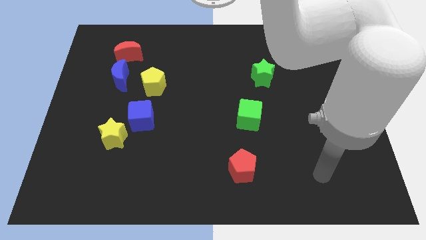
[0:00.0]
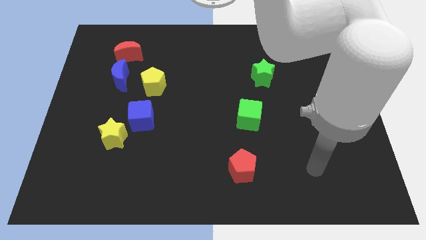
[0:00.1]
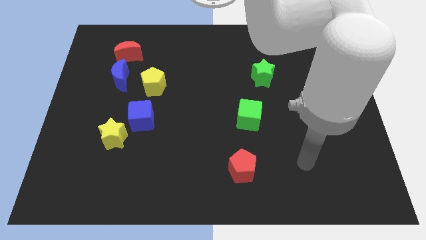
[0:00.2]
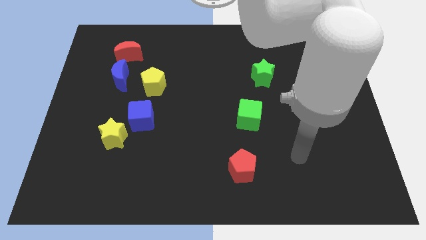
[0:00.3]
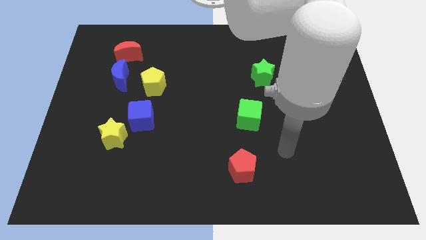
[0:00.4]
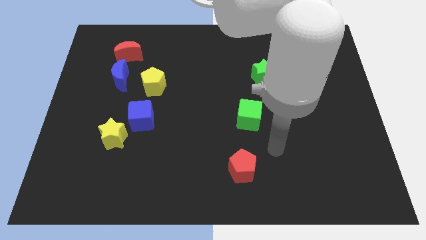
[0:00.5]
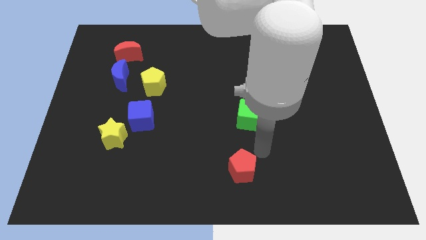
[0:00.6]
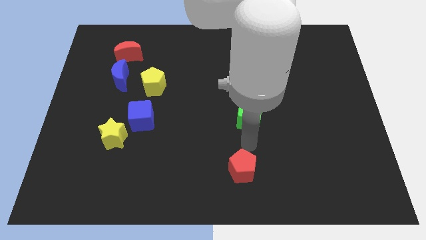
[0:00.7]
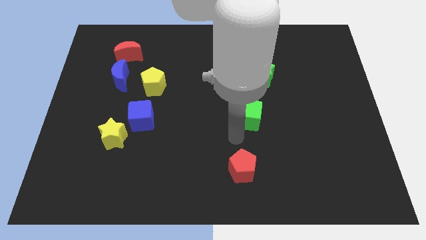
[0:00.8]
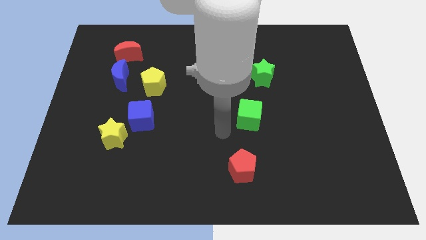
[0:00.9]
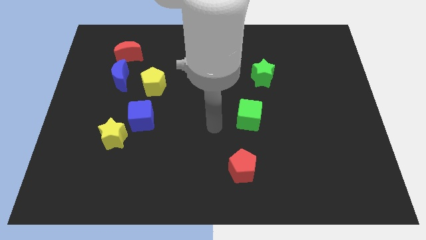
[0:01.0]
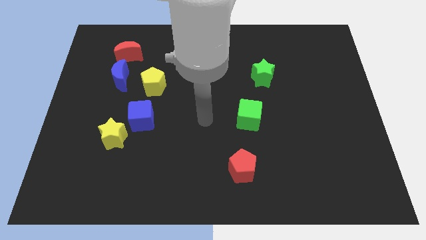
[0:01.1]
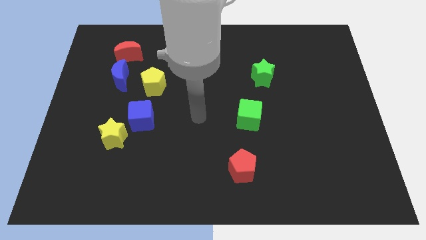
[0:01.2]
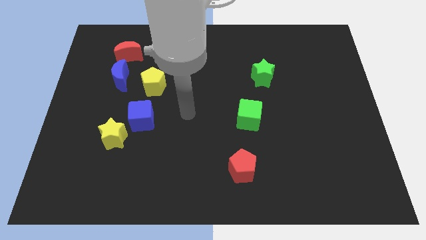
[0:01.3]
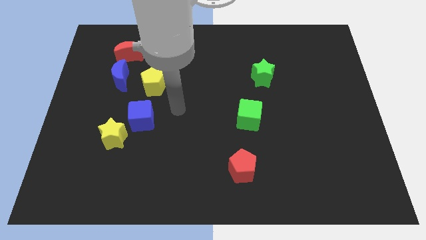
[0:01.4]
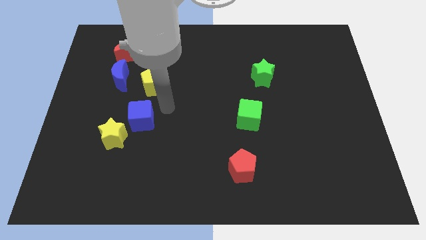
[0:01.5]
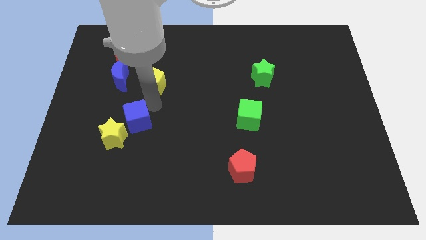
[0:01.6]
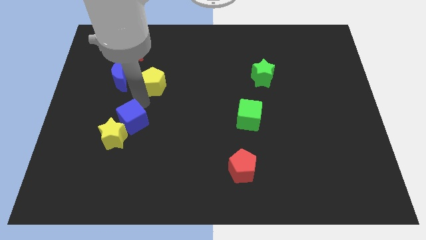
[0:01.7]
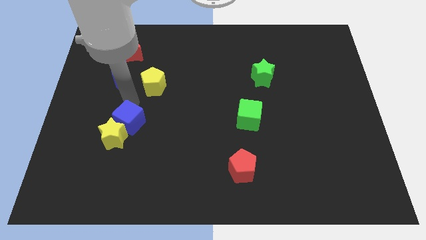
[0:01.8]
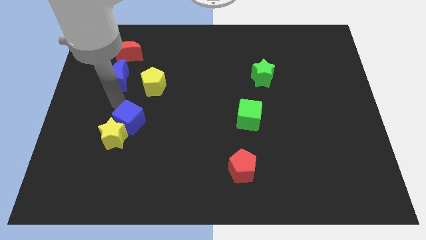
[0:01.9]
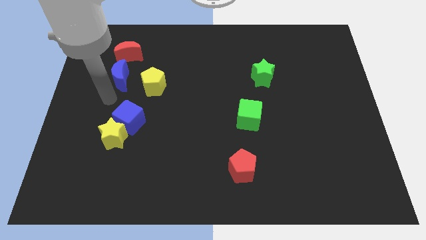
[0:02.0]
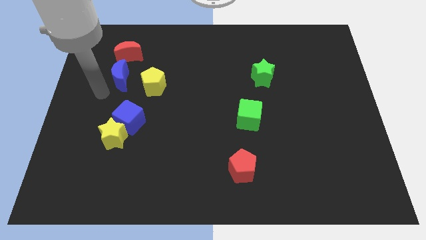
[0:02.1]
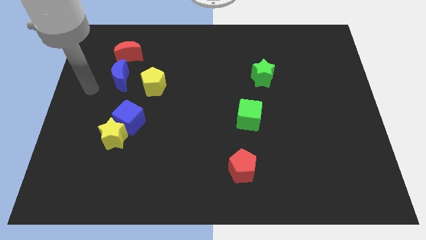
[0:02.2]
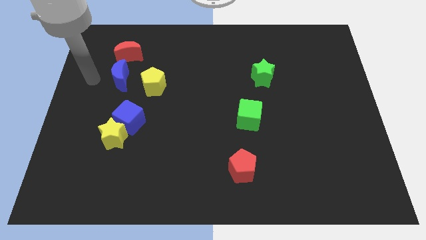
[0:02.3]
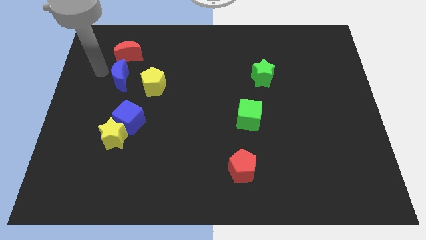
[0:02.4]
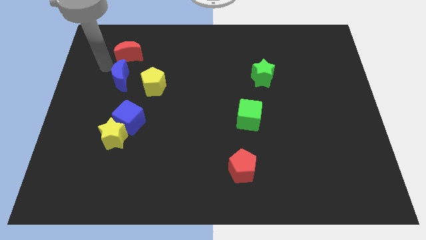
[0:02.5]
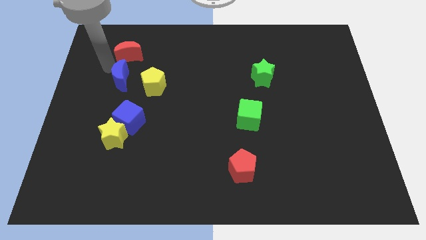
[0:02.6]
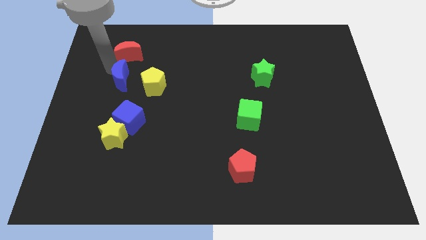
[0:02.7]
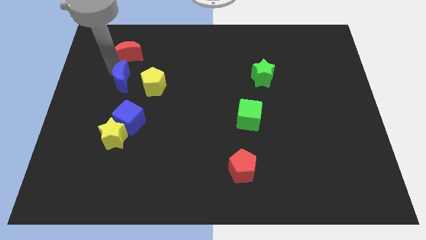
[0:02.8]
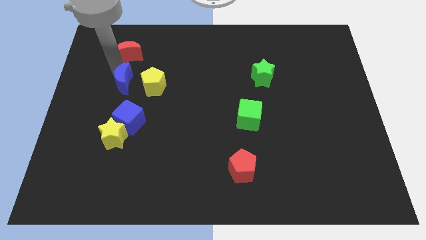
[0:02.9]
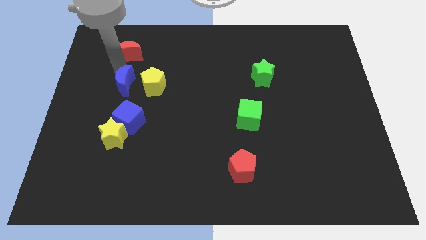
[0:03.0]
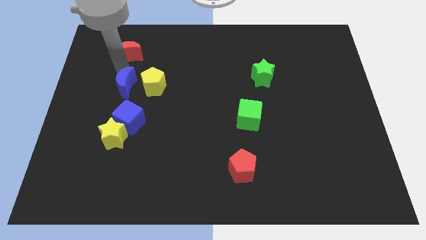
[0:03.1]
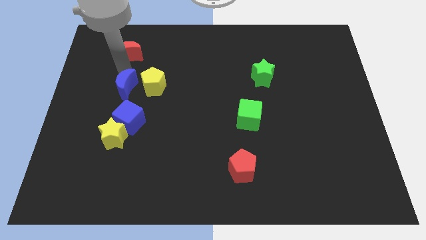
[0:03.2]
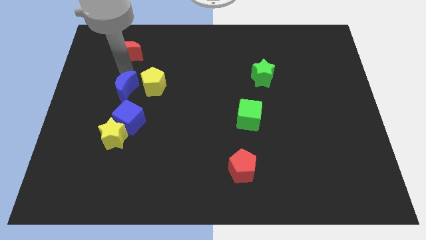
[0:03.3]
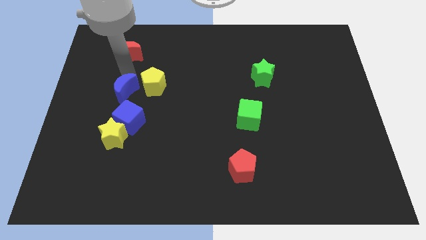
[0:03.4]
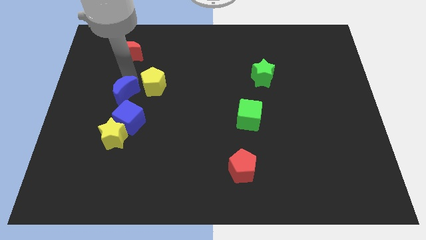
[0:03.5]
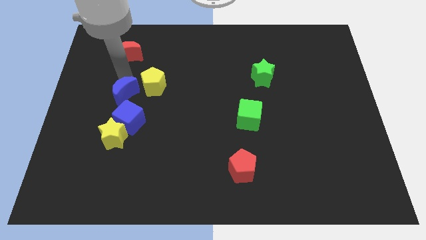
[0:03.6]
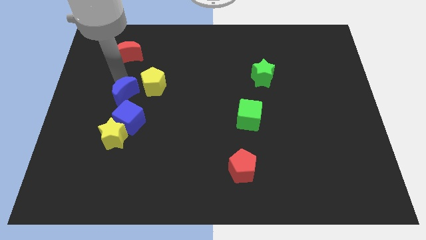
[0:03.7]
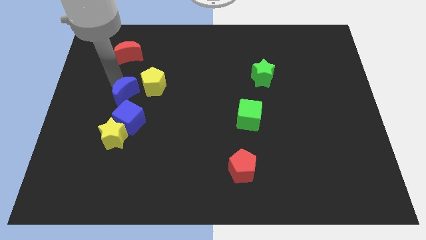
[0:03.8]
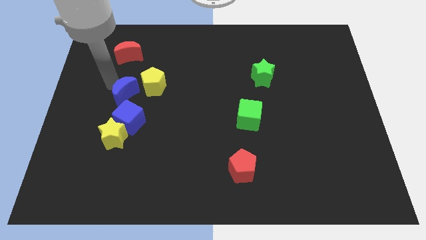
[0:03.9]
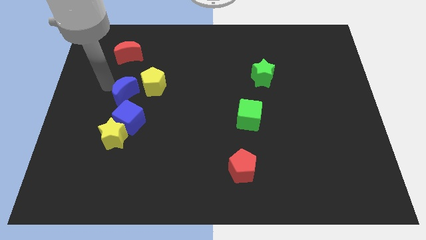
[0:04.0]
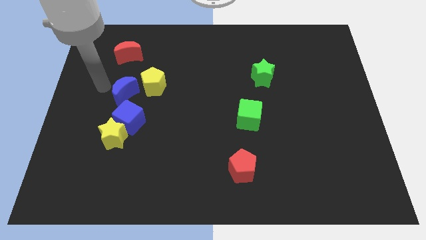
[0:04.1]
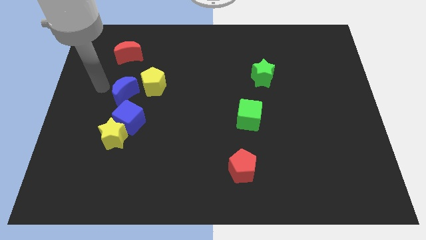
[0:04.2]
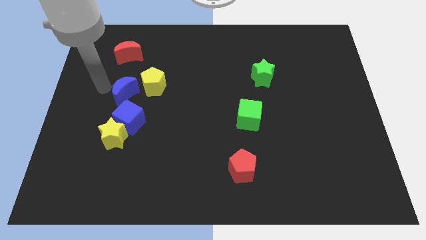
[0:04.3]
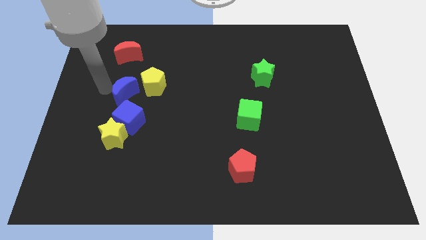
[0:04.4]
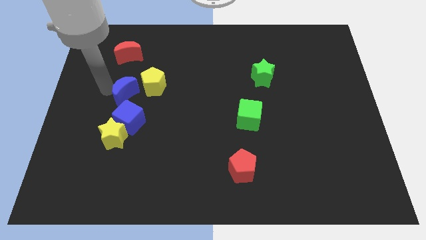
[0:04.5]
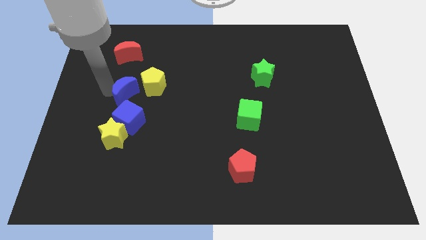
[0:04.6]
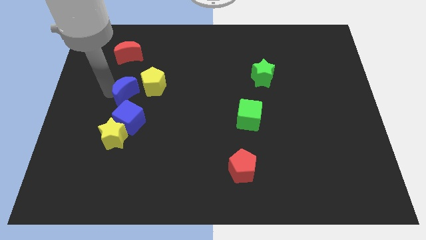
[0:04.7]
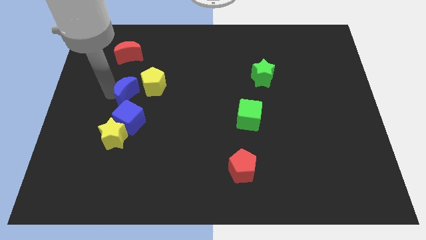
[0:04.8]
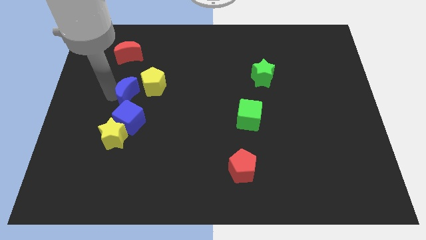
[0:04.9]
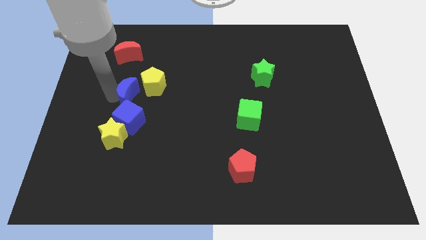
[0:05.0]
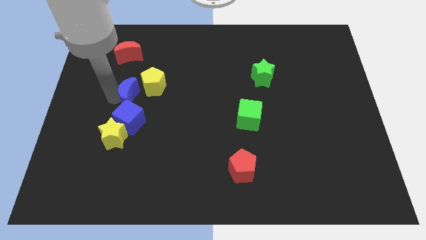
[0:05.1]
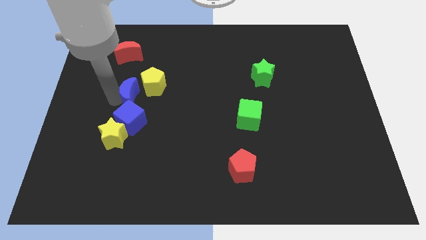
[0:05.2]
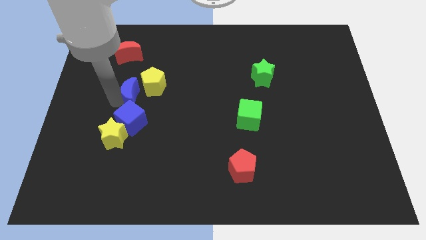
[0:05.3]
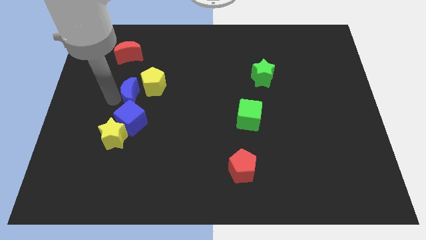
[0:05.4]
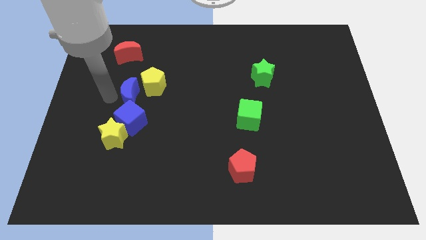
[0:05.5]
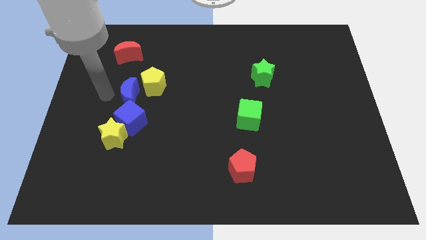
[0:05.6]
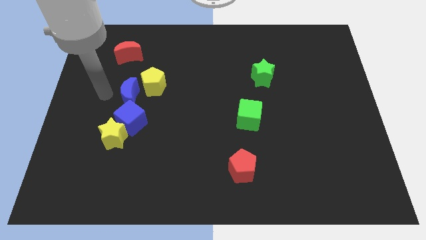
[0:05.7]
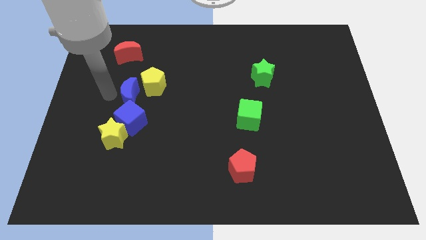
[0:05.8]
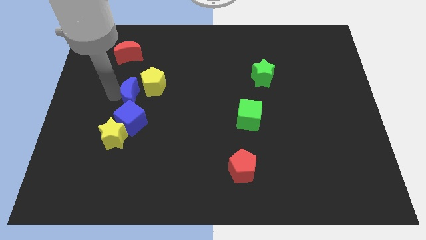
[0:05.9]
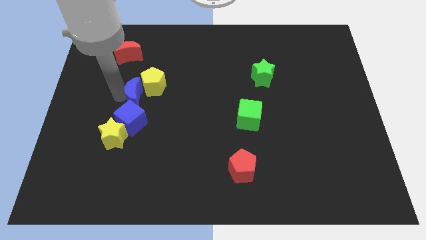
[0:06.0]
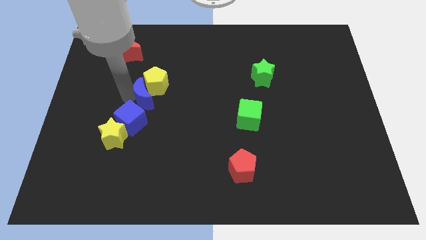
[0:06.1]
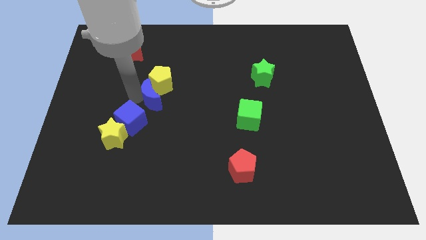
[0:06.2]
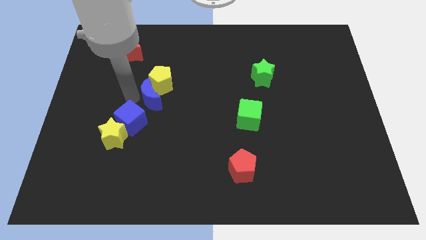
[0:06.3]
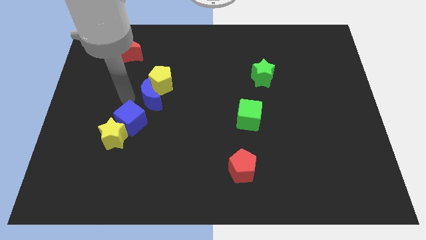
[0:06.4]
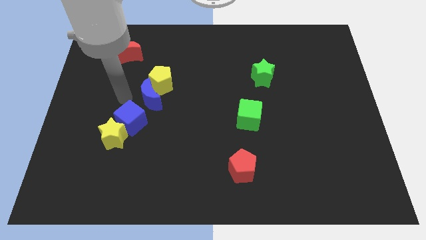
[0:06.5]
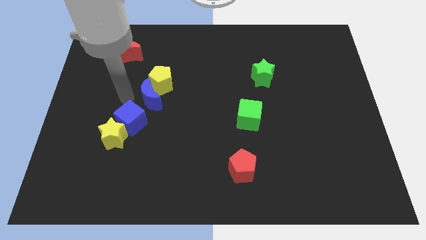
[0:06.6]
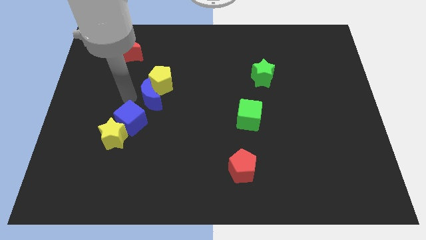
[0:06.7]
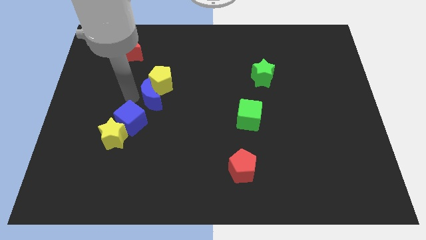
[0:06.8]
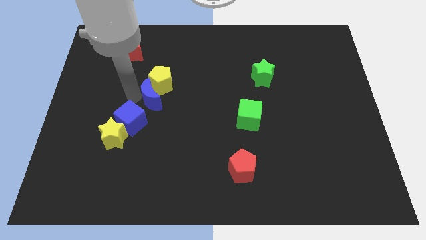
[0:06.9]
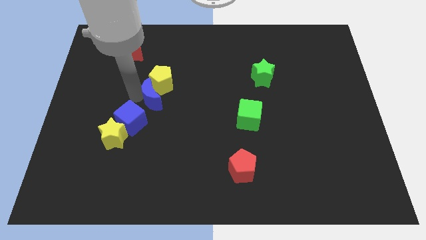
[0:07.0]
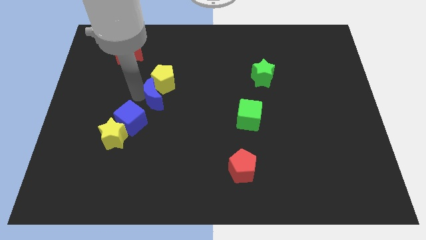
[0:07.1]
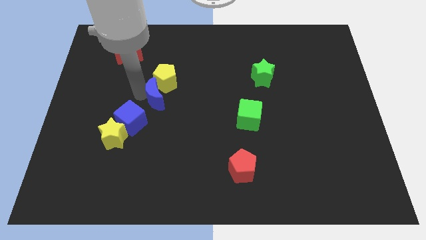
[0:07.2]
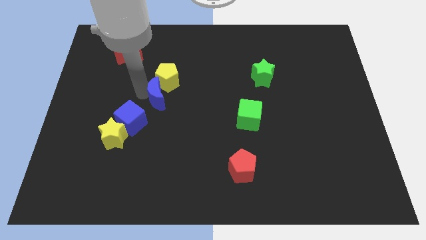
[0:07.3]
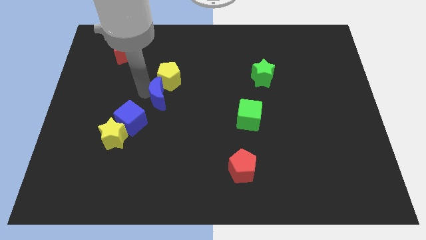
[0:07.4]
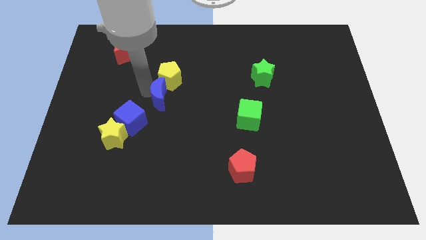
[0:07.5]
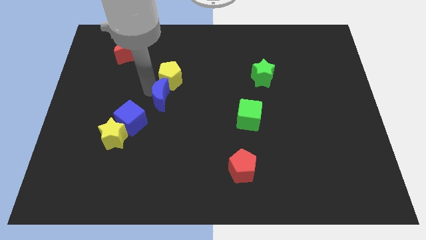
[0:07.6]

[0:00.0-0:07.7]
push the blue moon to the center

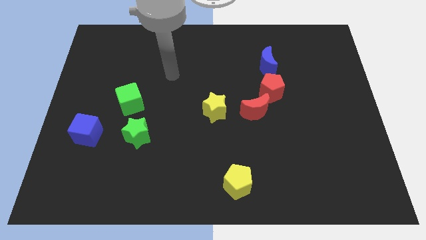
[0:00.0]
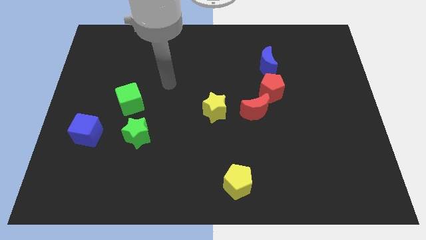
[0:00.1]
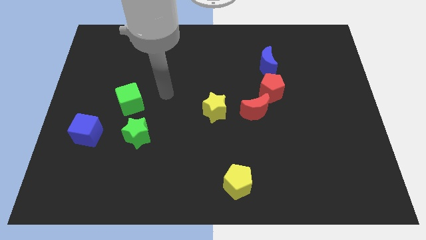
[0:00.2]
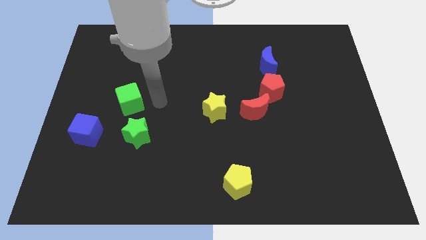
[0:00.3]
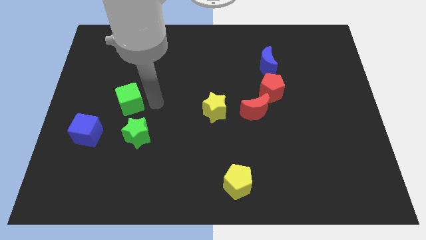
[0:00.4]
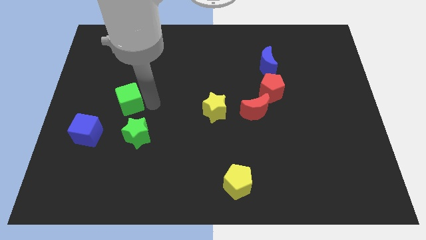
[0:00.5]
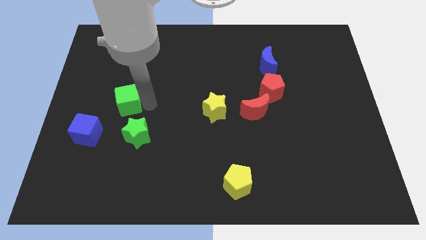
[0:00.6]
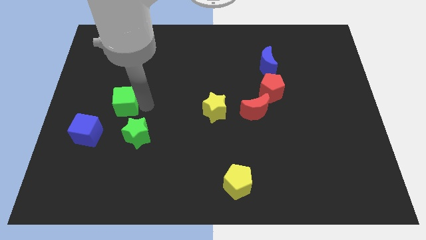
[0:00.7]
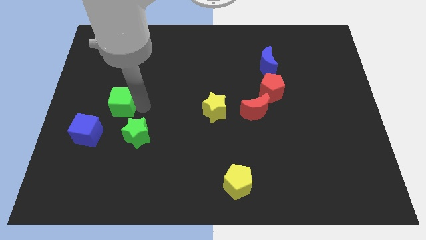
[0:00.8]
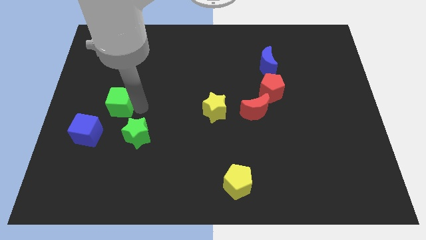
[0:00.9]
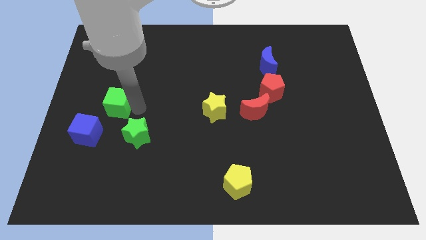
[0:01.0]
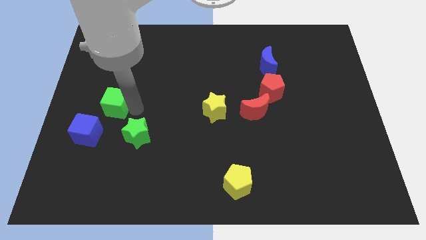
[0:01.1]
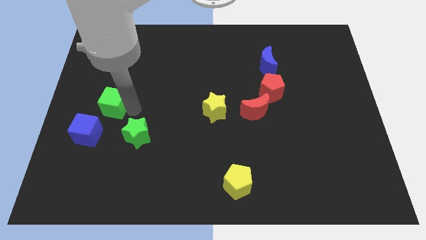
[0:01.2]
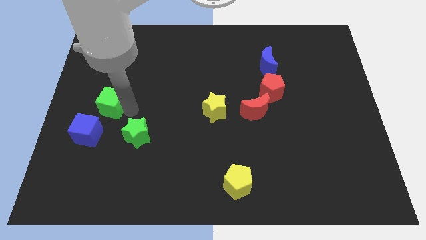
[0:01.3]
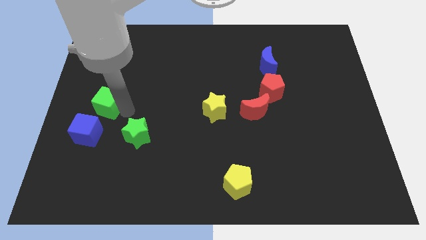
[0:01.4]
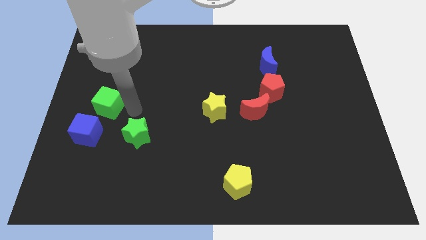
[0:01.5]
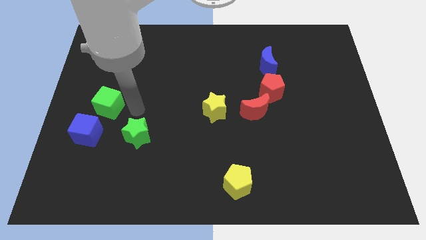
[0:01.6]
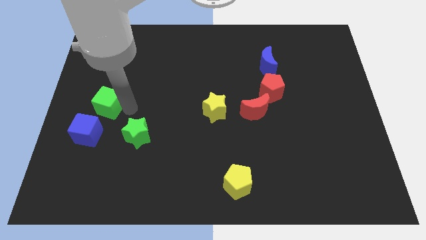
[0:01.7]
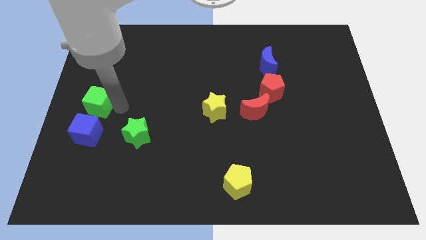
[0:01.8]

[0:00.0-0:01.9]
put the green cube to the left side
